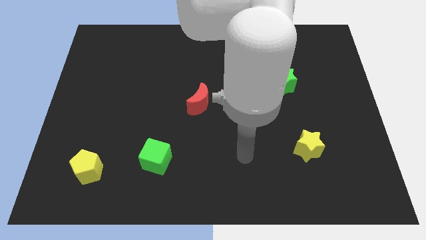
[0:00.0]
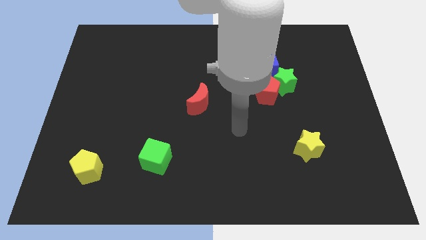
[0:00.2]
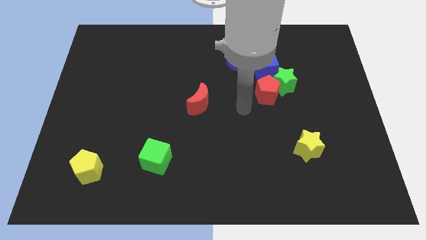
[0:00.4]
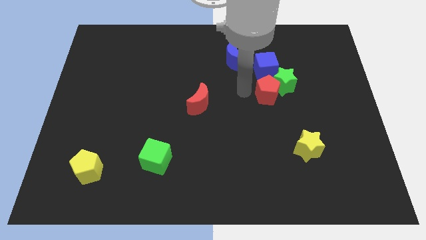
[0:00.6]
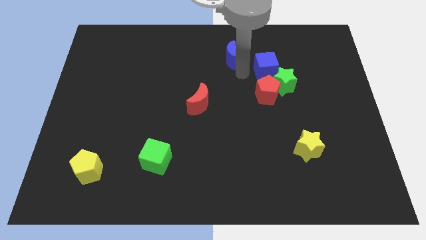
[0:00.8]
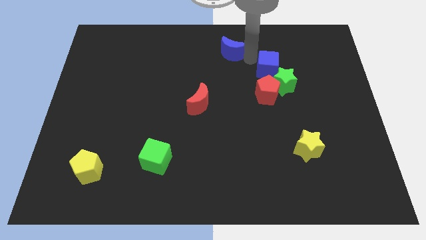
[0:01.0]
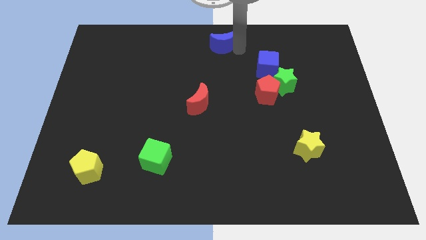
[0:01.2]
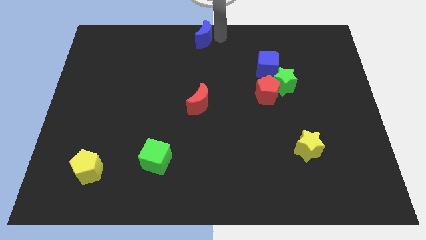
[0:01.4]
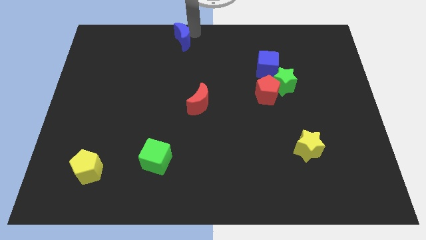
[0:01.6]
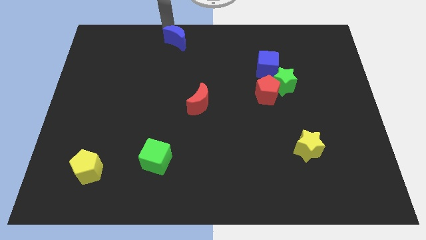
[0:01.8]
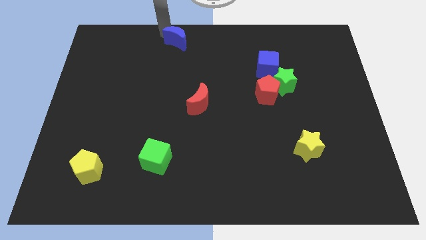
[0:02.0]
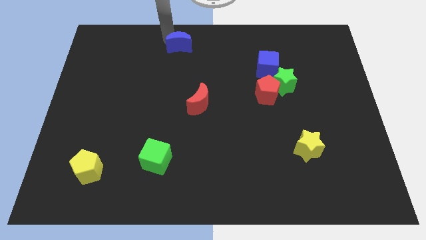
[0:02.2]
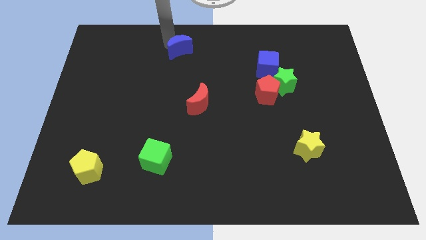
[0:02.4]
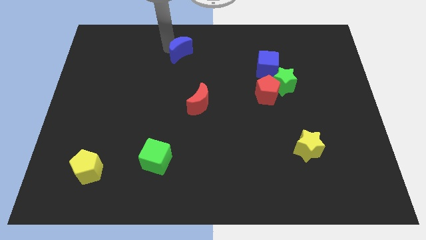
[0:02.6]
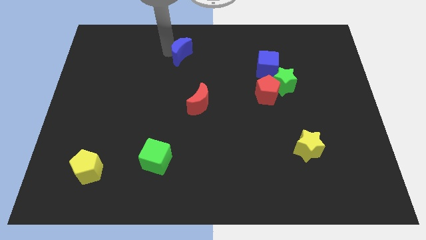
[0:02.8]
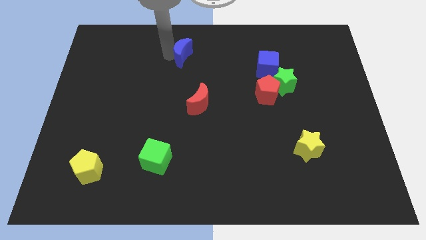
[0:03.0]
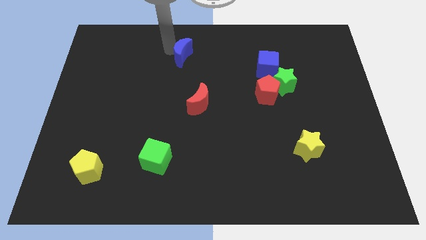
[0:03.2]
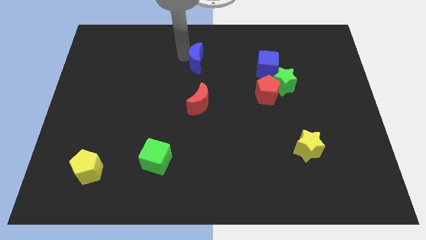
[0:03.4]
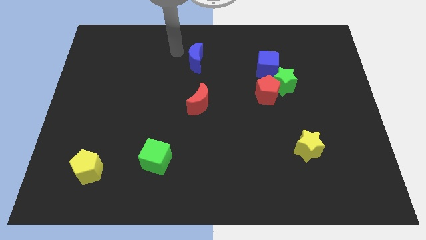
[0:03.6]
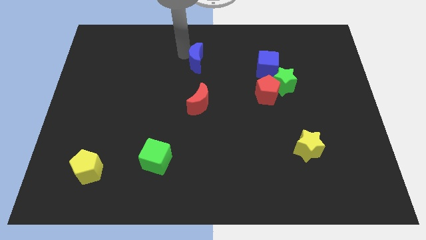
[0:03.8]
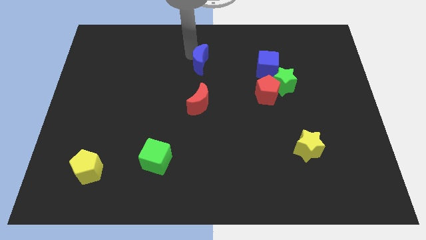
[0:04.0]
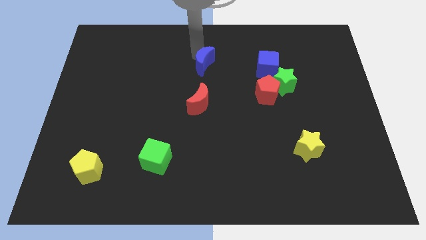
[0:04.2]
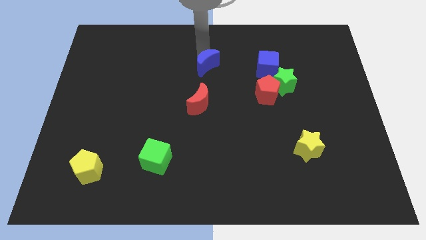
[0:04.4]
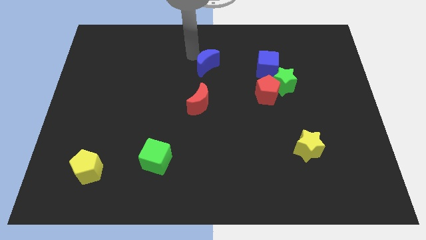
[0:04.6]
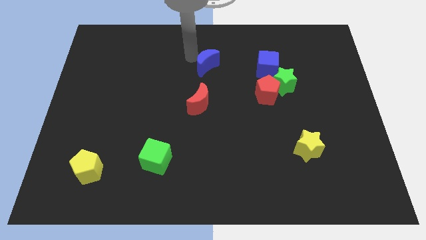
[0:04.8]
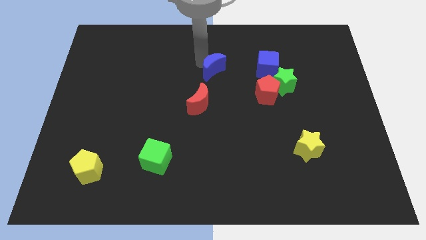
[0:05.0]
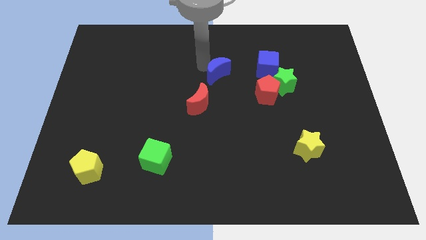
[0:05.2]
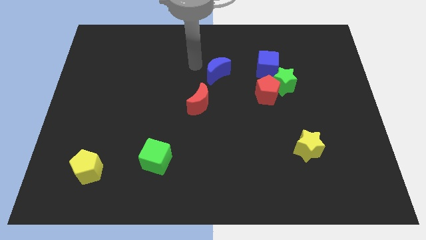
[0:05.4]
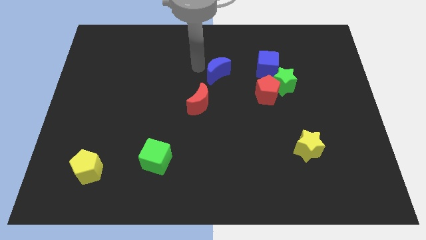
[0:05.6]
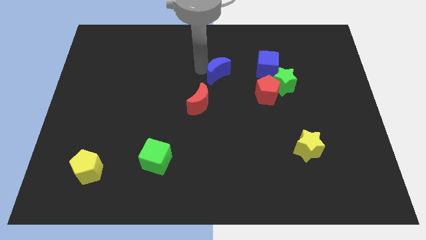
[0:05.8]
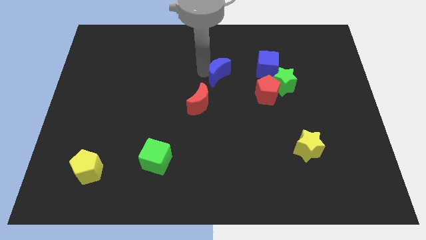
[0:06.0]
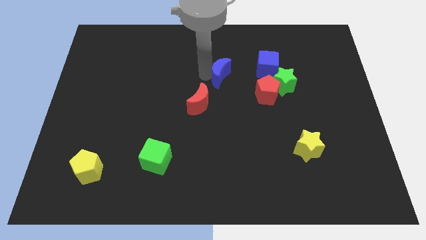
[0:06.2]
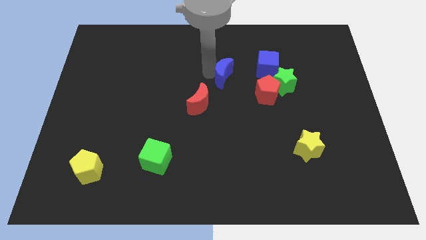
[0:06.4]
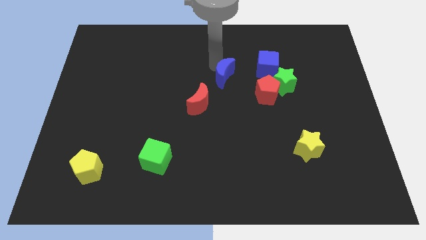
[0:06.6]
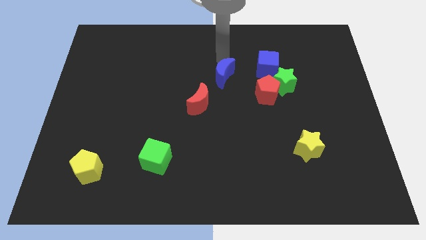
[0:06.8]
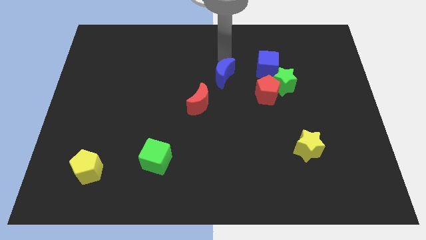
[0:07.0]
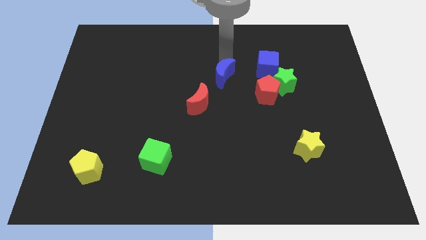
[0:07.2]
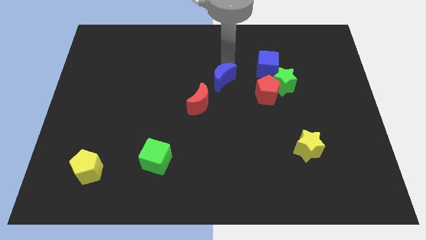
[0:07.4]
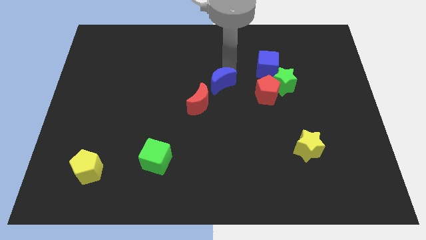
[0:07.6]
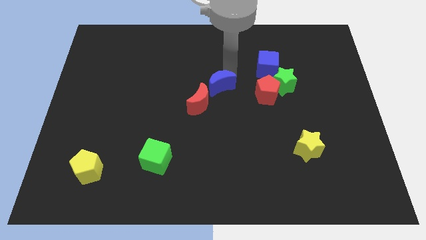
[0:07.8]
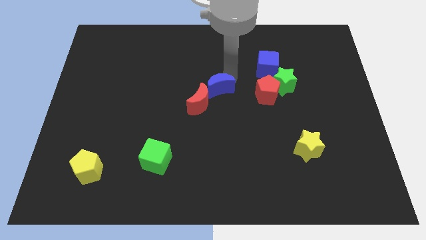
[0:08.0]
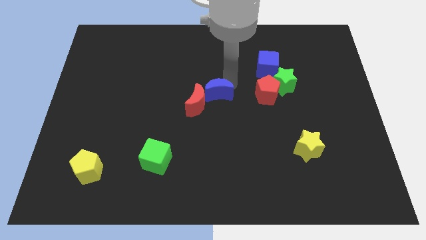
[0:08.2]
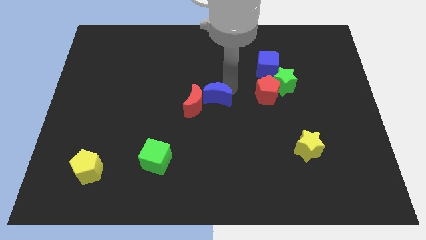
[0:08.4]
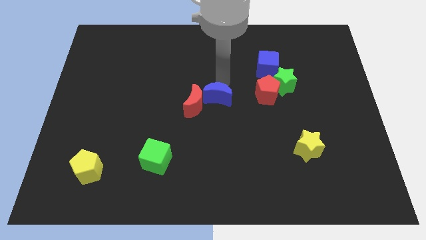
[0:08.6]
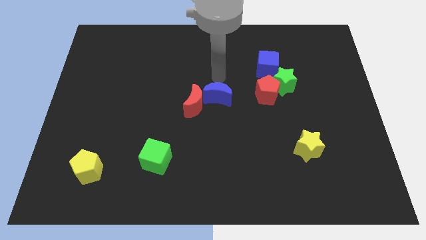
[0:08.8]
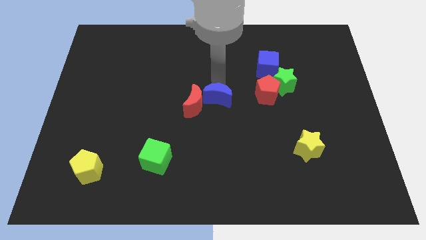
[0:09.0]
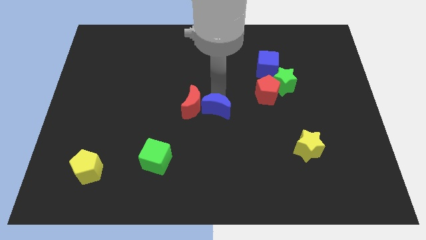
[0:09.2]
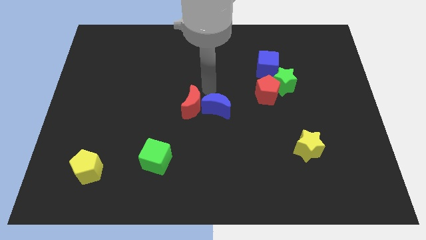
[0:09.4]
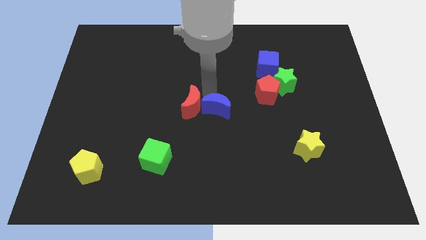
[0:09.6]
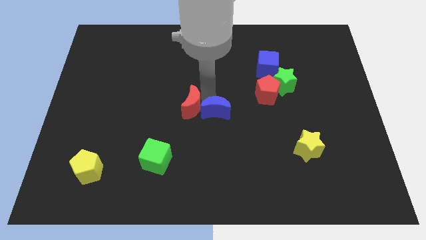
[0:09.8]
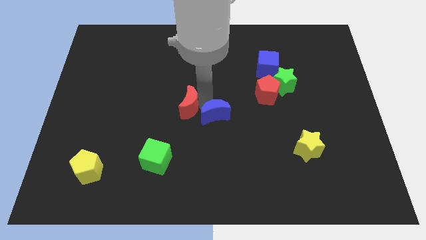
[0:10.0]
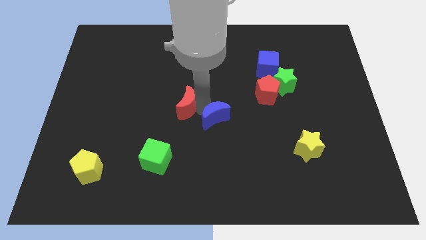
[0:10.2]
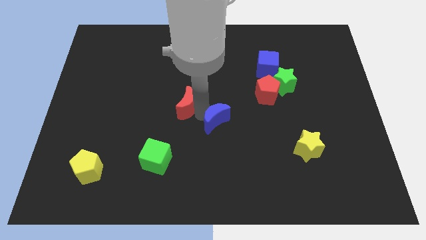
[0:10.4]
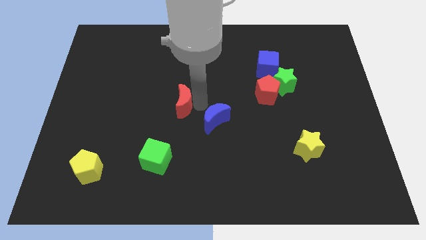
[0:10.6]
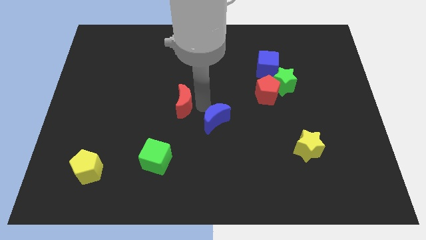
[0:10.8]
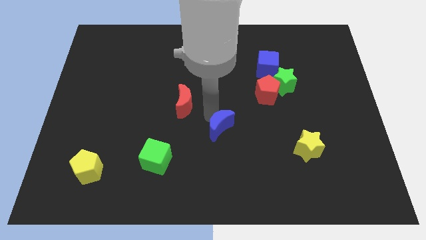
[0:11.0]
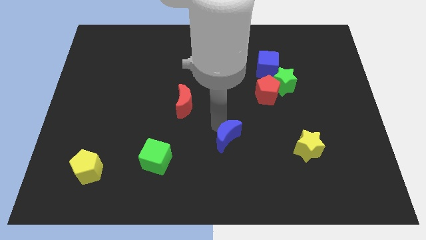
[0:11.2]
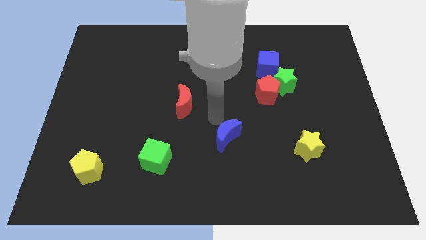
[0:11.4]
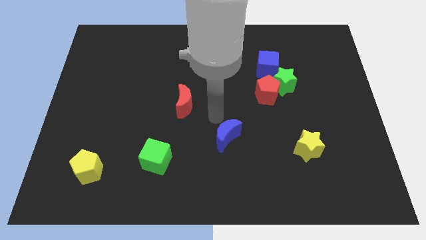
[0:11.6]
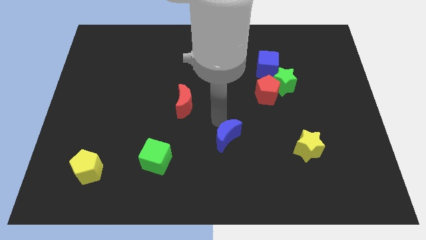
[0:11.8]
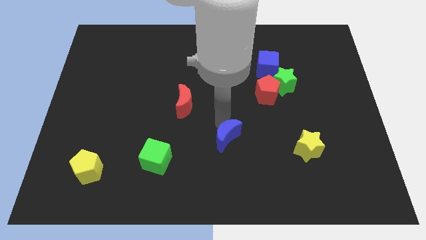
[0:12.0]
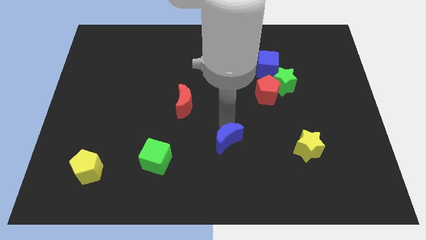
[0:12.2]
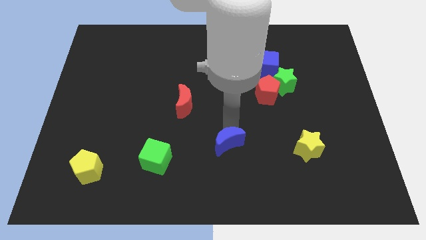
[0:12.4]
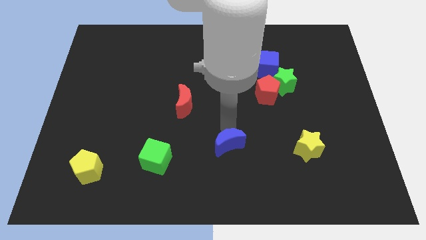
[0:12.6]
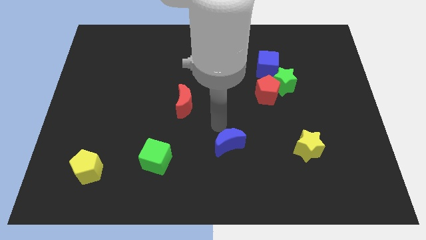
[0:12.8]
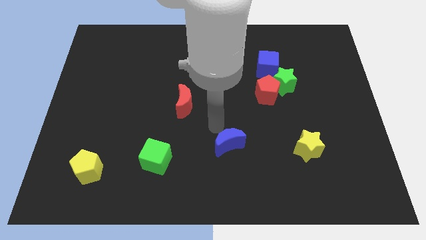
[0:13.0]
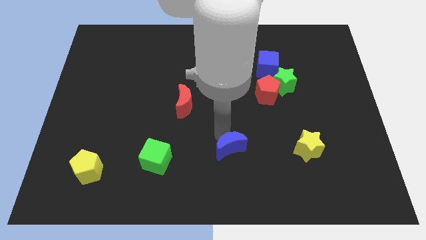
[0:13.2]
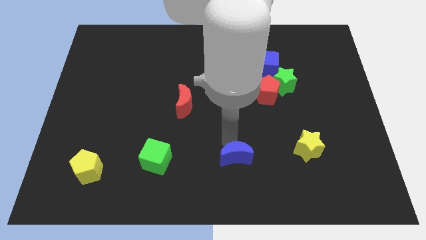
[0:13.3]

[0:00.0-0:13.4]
push the blue moon to the bottom side
